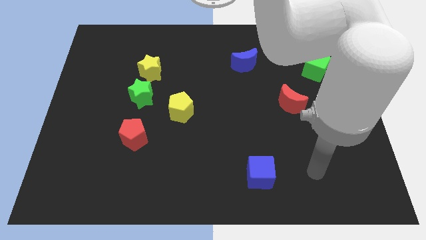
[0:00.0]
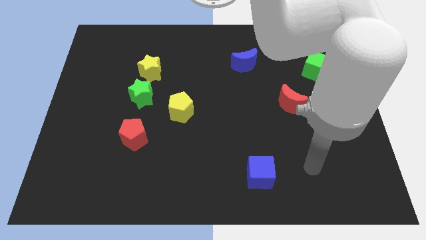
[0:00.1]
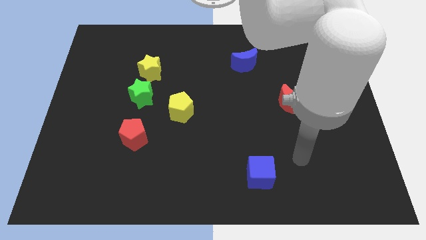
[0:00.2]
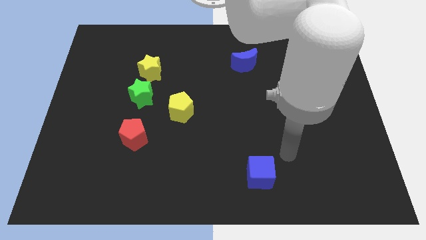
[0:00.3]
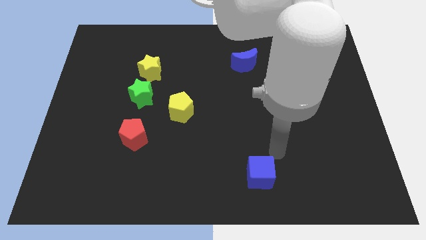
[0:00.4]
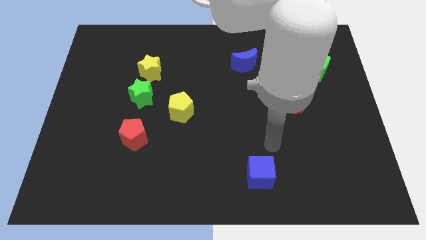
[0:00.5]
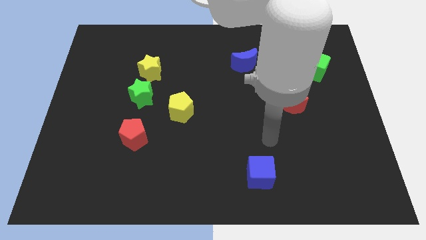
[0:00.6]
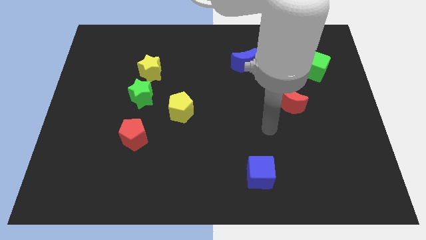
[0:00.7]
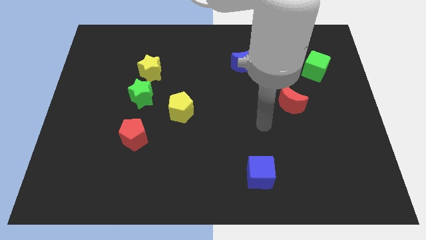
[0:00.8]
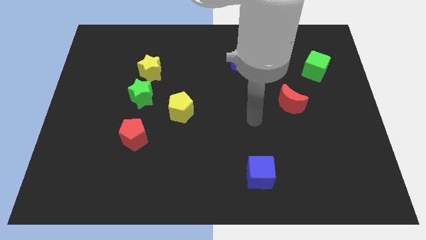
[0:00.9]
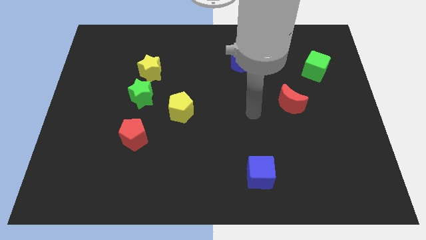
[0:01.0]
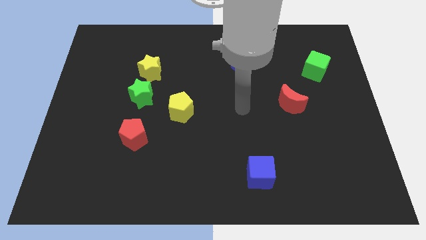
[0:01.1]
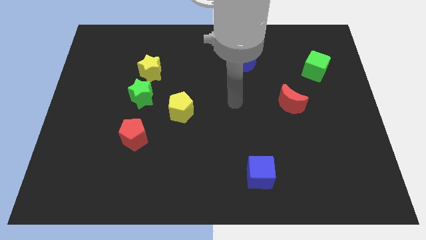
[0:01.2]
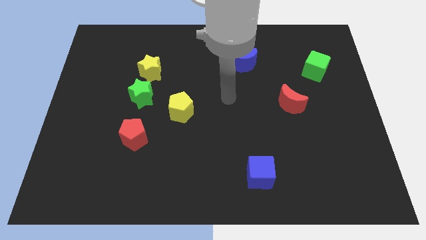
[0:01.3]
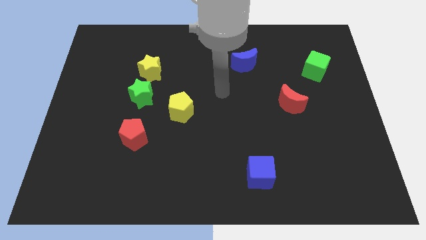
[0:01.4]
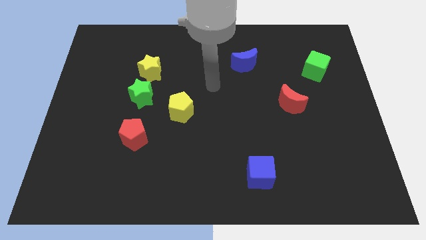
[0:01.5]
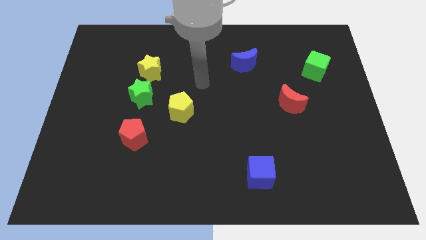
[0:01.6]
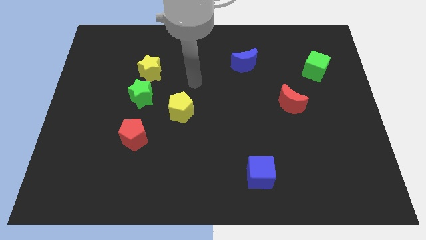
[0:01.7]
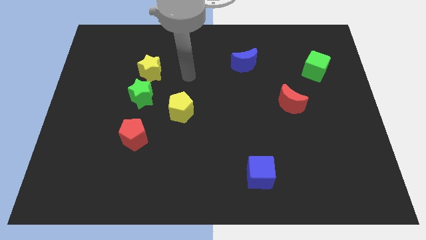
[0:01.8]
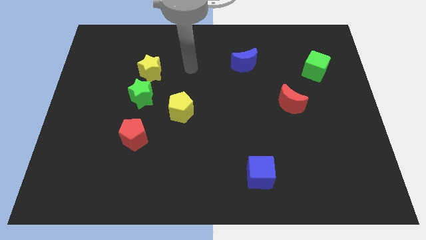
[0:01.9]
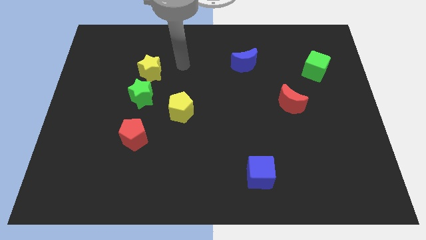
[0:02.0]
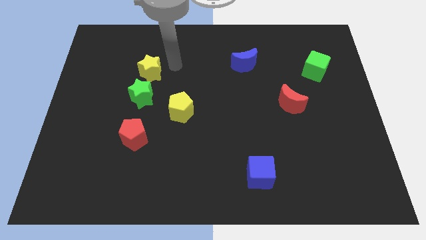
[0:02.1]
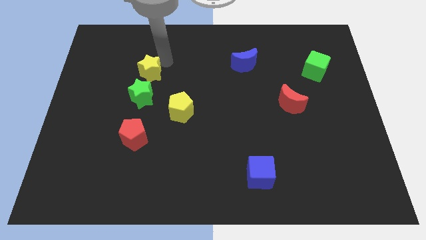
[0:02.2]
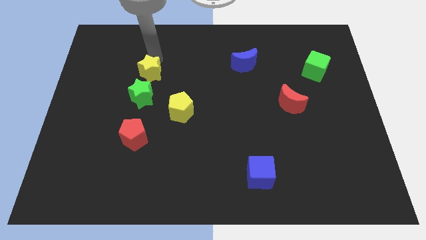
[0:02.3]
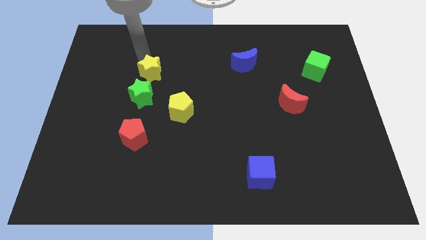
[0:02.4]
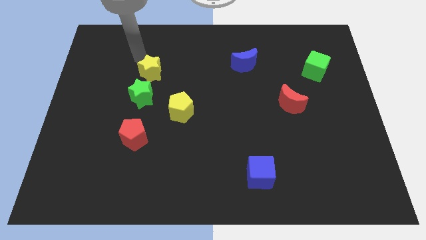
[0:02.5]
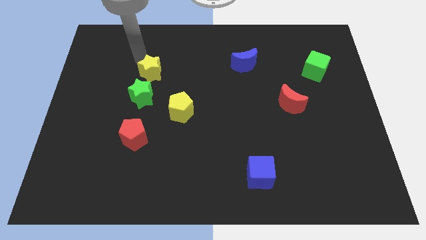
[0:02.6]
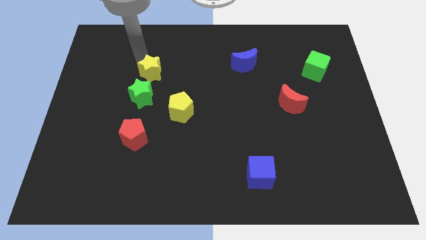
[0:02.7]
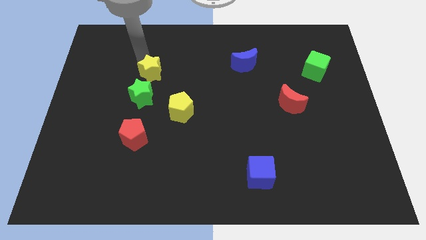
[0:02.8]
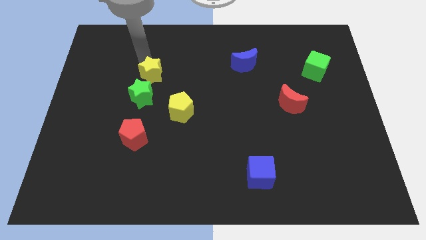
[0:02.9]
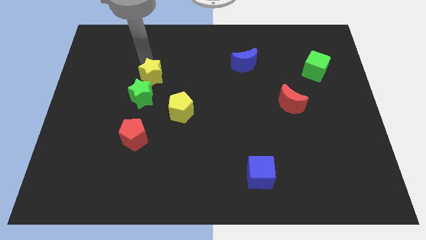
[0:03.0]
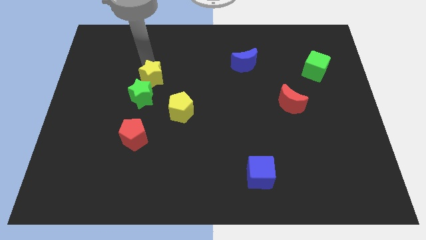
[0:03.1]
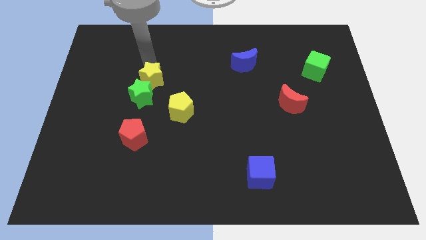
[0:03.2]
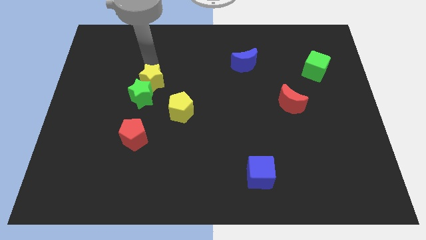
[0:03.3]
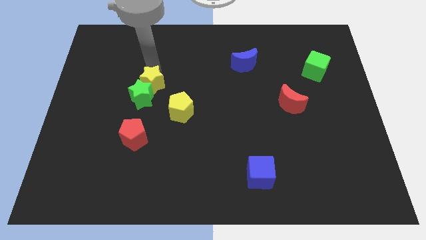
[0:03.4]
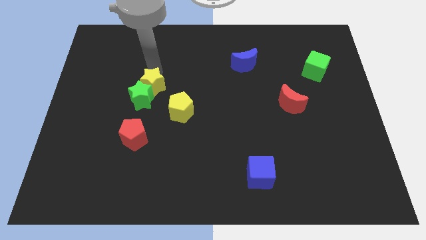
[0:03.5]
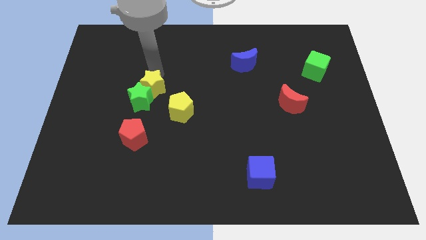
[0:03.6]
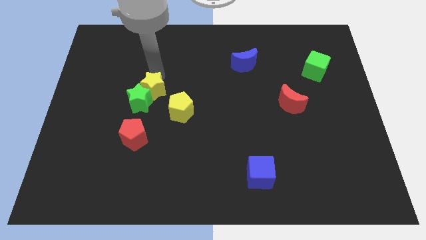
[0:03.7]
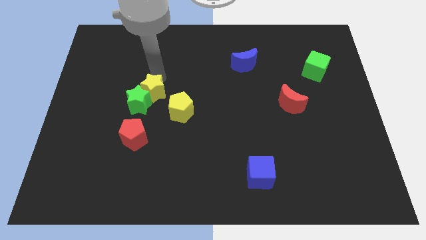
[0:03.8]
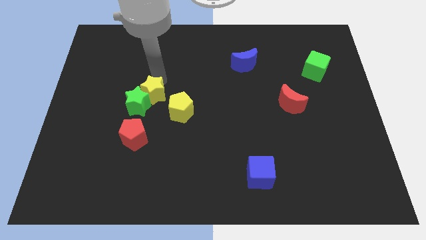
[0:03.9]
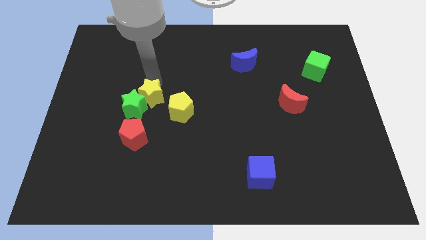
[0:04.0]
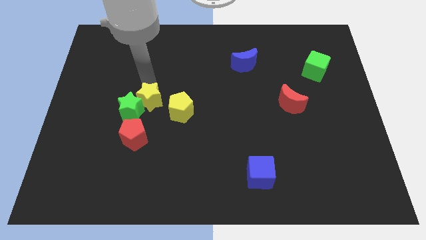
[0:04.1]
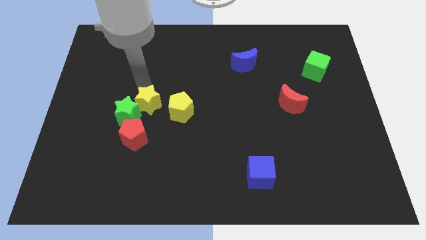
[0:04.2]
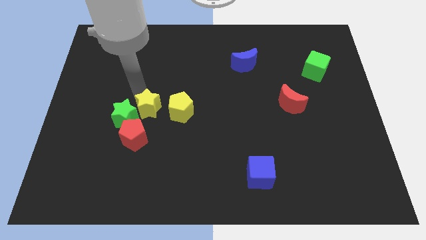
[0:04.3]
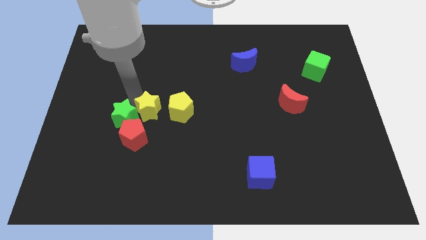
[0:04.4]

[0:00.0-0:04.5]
slightly slide the yellow star down and to the right diagonally

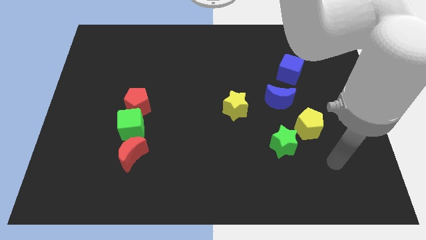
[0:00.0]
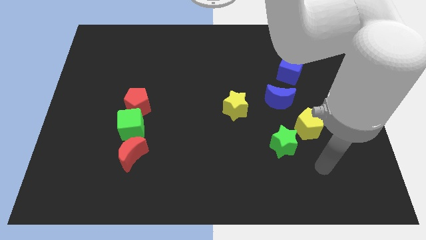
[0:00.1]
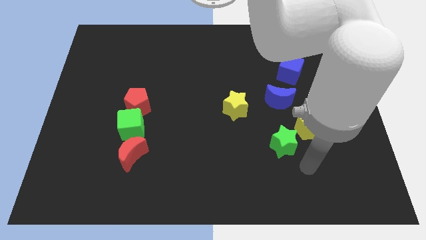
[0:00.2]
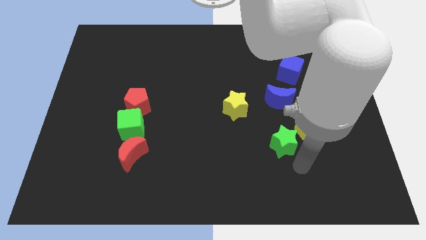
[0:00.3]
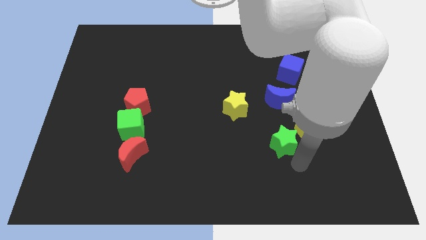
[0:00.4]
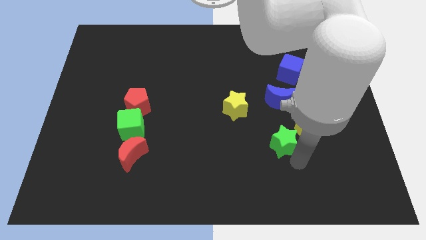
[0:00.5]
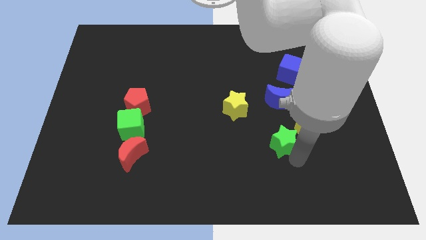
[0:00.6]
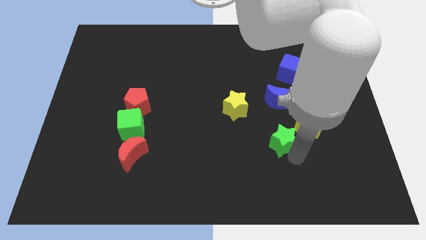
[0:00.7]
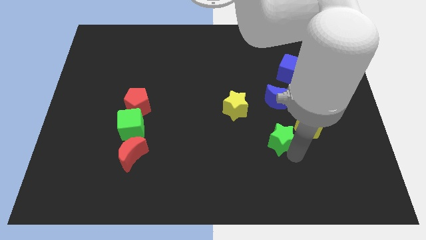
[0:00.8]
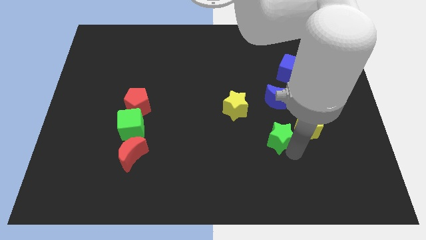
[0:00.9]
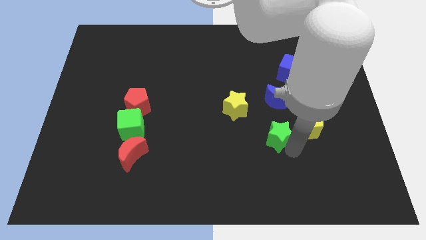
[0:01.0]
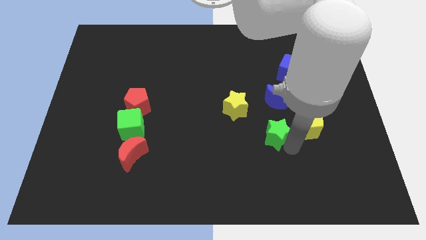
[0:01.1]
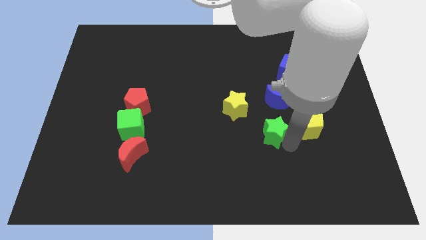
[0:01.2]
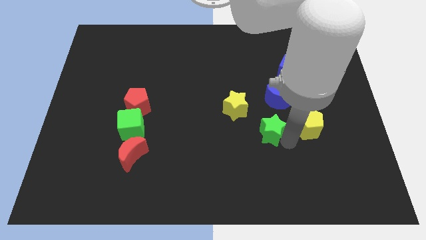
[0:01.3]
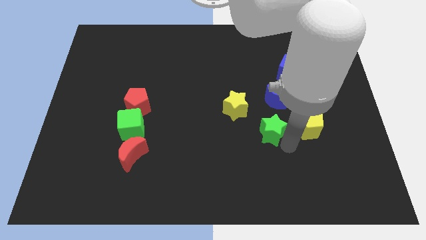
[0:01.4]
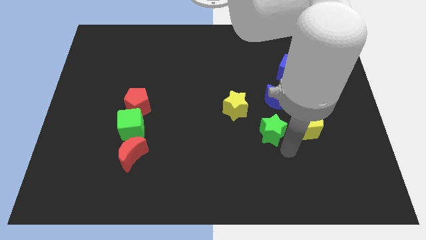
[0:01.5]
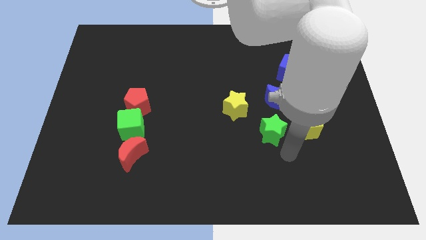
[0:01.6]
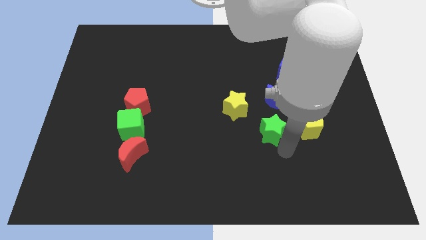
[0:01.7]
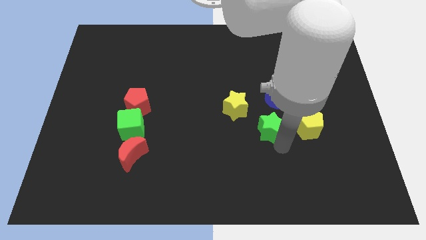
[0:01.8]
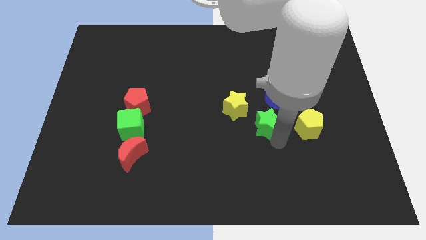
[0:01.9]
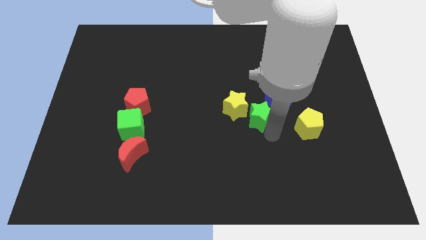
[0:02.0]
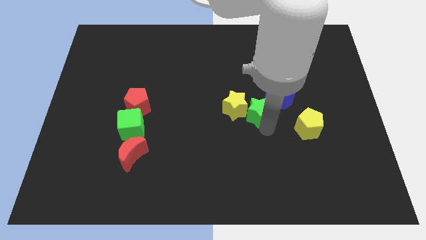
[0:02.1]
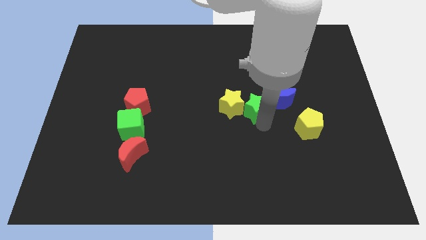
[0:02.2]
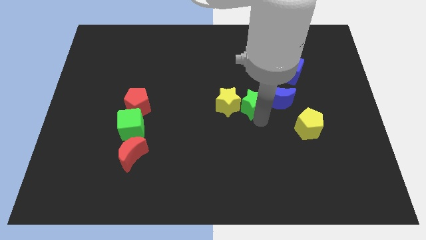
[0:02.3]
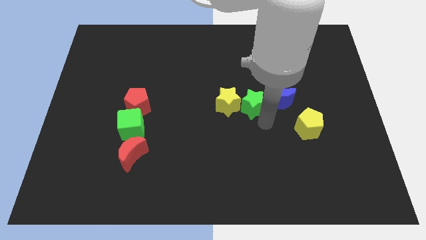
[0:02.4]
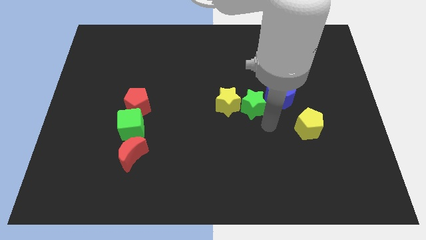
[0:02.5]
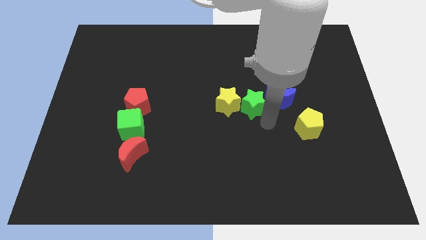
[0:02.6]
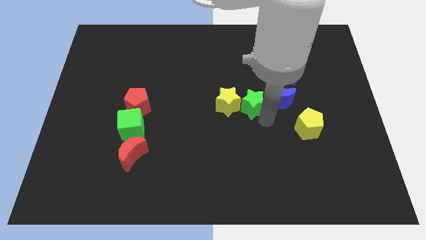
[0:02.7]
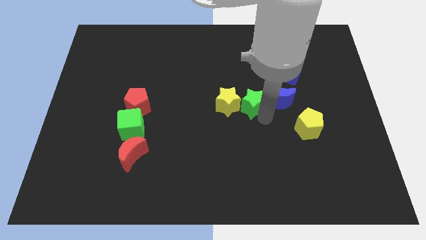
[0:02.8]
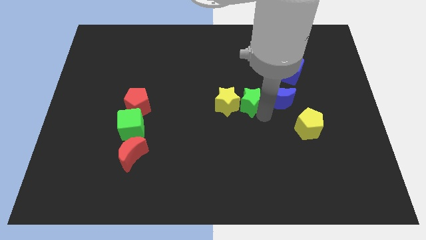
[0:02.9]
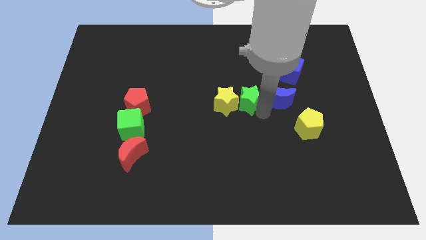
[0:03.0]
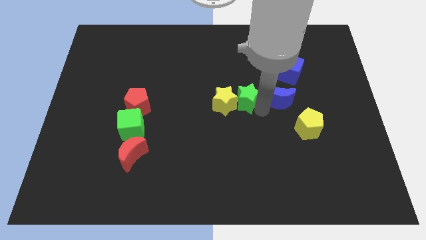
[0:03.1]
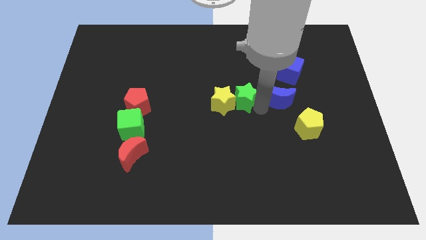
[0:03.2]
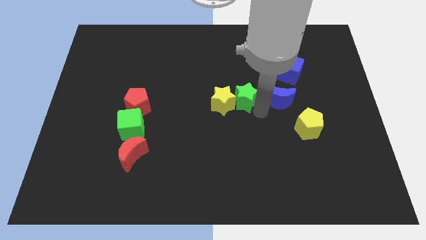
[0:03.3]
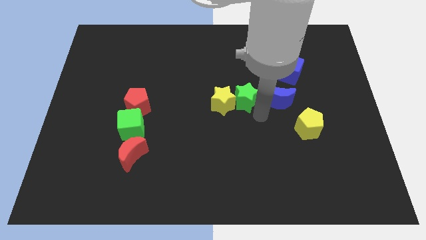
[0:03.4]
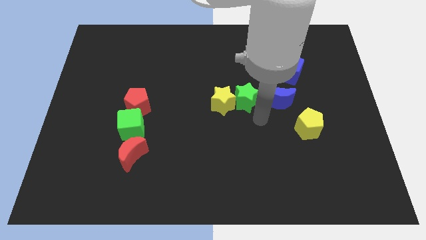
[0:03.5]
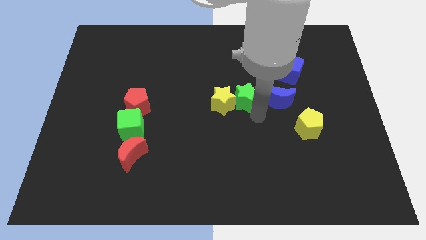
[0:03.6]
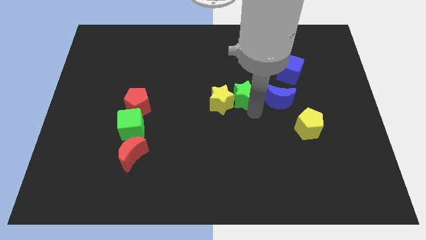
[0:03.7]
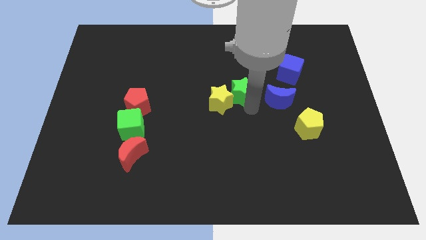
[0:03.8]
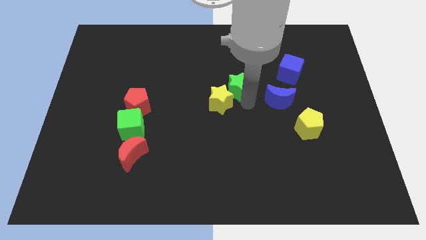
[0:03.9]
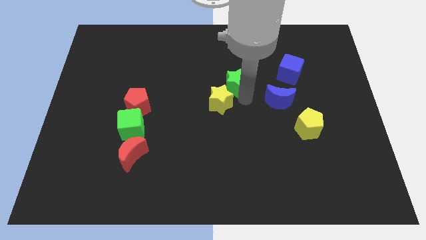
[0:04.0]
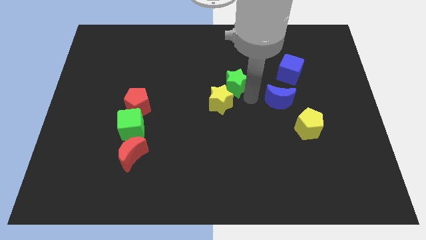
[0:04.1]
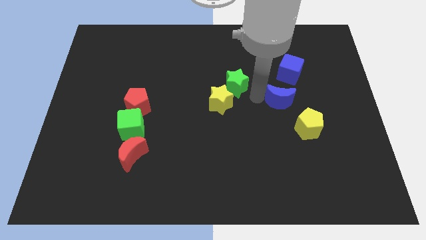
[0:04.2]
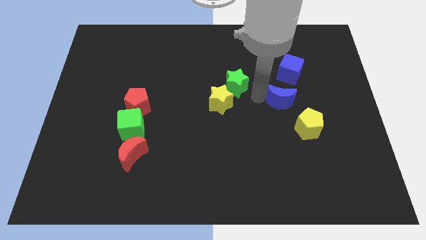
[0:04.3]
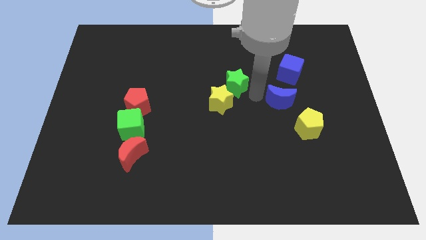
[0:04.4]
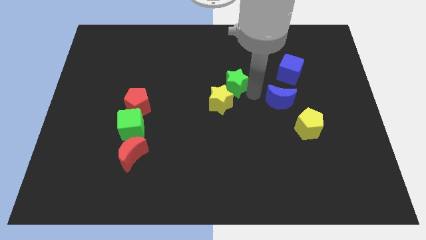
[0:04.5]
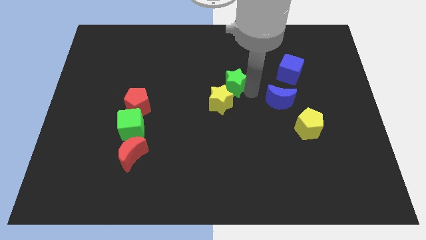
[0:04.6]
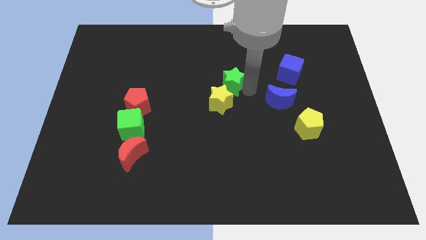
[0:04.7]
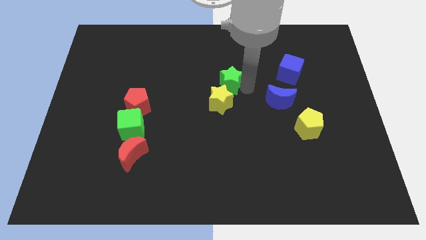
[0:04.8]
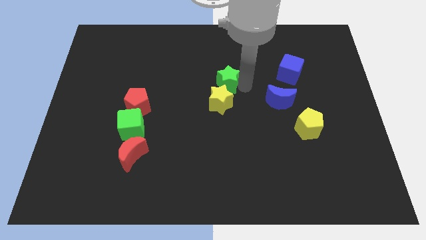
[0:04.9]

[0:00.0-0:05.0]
push the green star diagonally upwards and to the left
